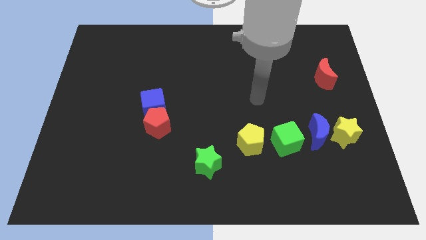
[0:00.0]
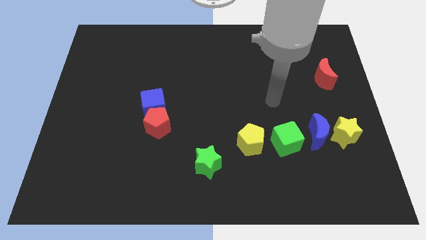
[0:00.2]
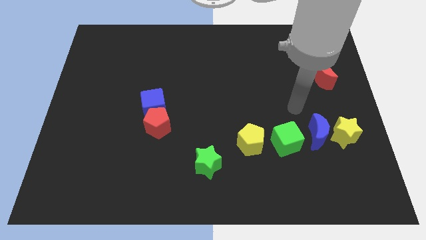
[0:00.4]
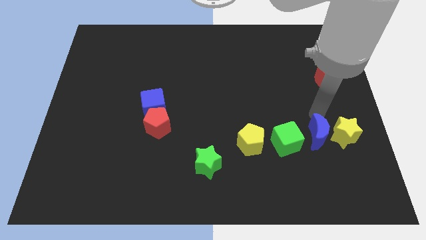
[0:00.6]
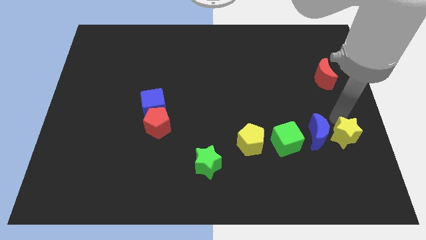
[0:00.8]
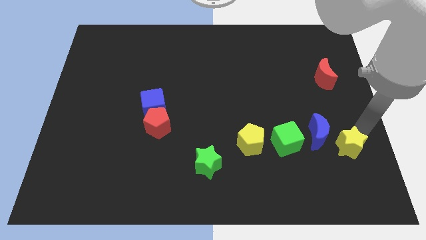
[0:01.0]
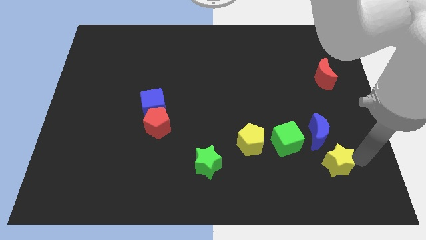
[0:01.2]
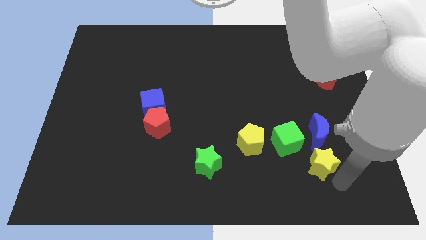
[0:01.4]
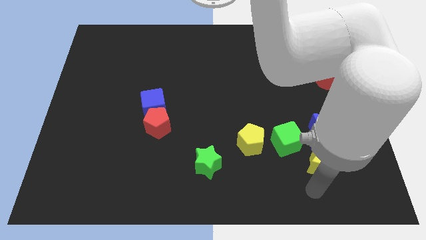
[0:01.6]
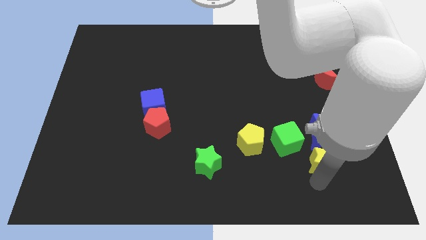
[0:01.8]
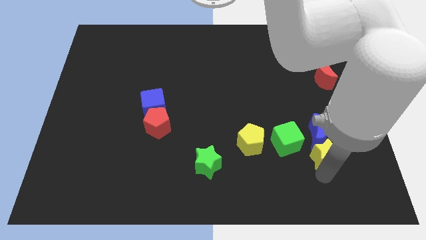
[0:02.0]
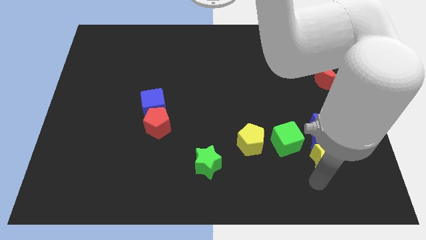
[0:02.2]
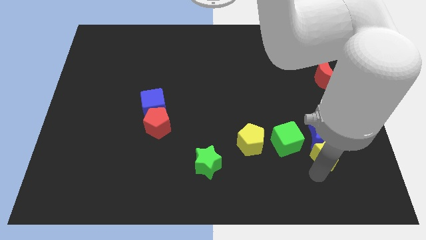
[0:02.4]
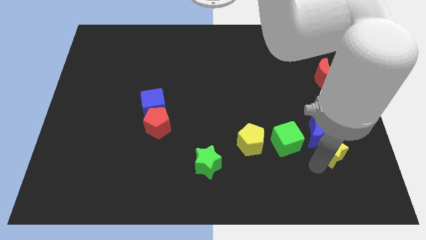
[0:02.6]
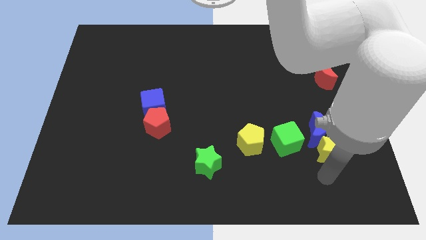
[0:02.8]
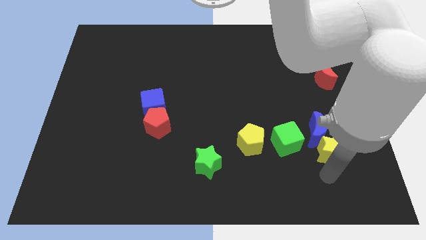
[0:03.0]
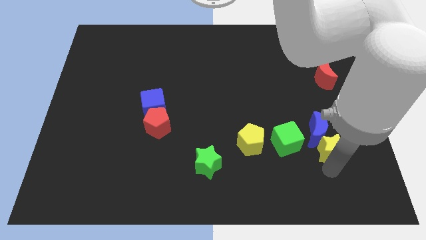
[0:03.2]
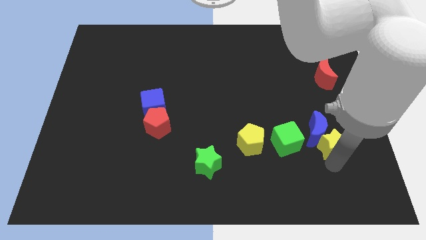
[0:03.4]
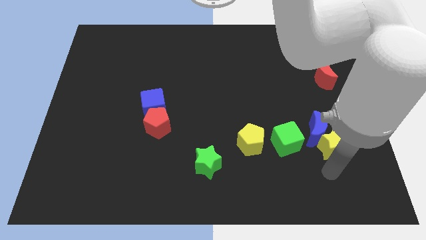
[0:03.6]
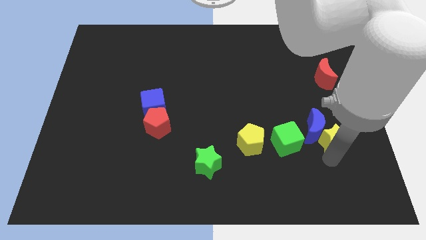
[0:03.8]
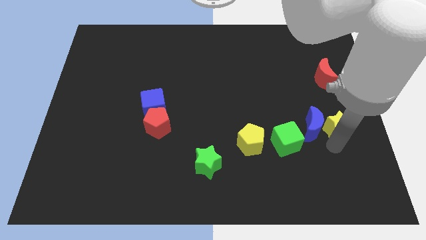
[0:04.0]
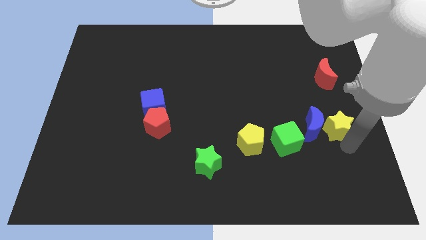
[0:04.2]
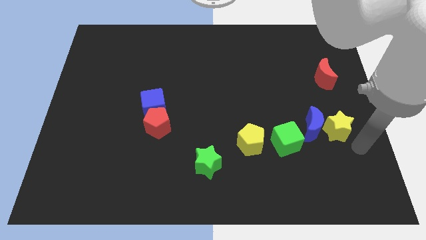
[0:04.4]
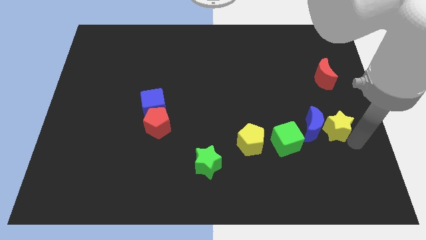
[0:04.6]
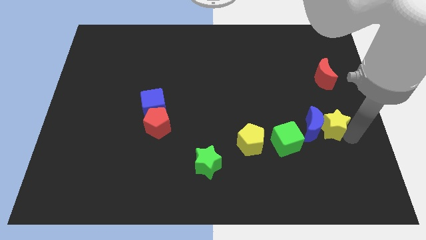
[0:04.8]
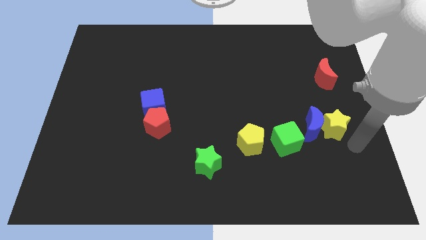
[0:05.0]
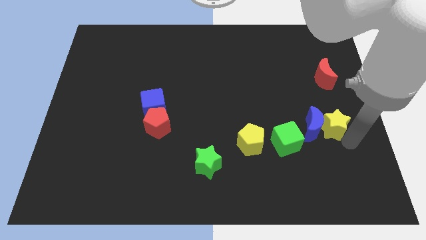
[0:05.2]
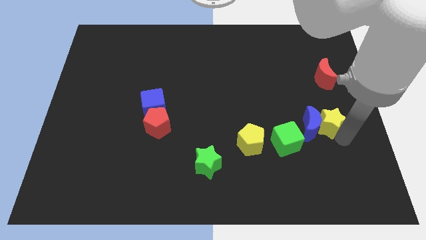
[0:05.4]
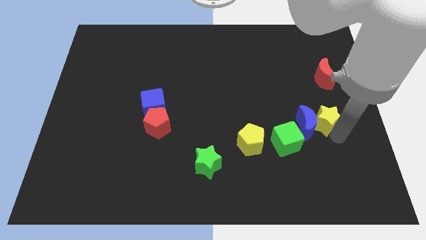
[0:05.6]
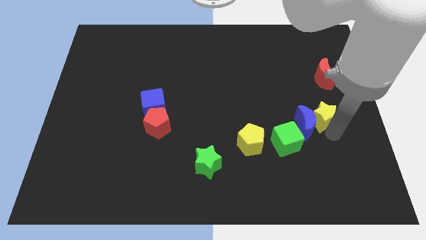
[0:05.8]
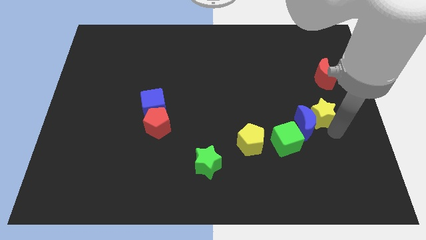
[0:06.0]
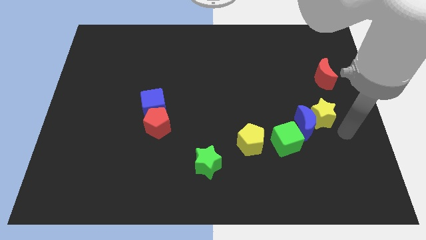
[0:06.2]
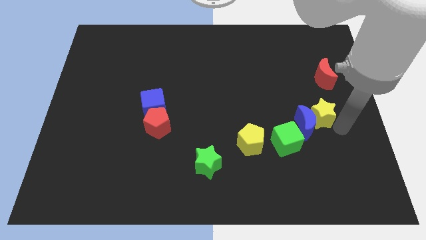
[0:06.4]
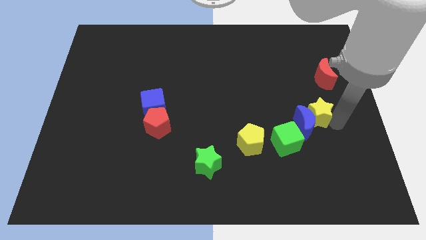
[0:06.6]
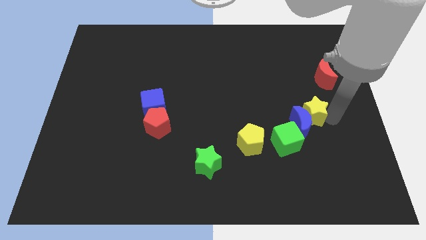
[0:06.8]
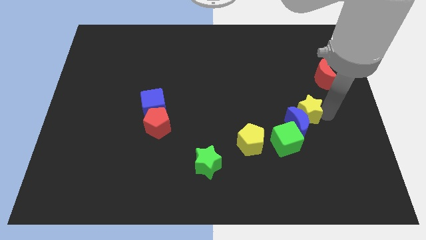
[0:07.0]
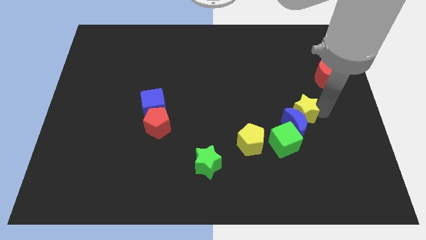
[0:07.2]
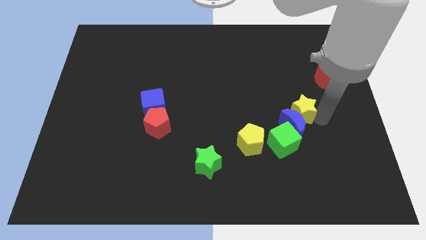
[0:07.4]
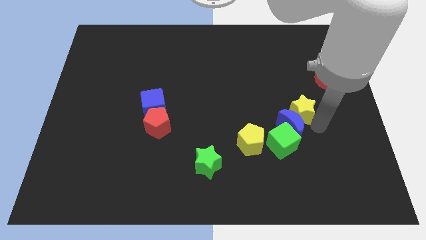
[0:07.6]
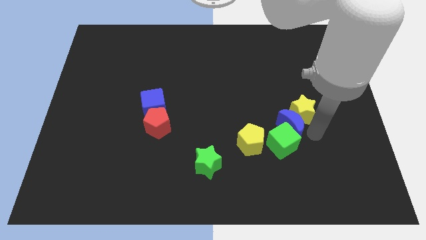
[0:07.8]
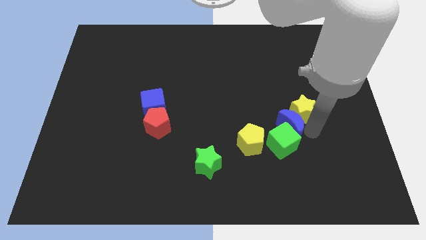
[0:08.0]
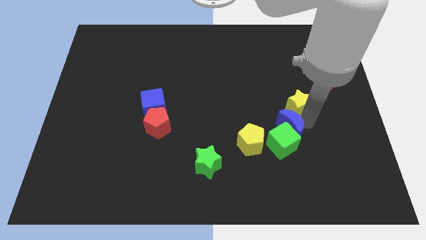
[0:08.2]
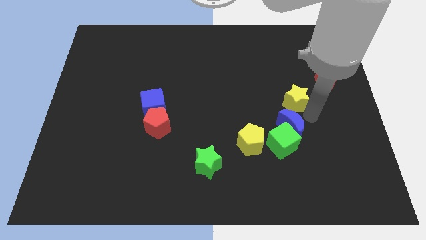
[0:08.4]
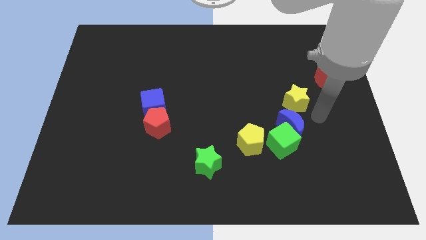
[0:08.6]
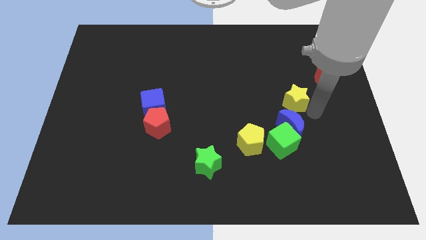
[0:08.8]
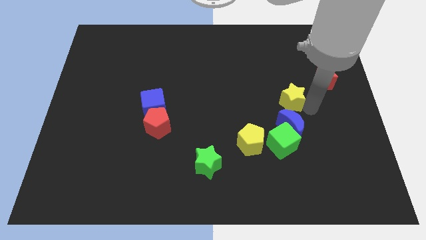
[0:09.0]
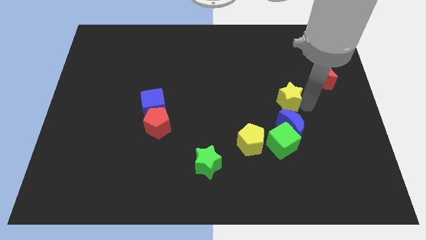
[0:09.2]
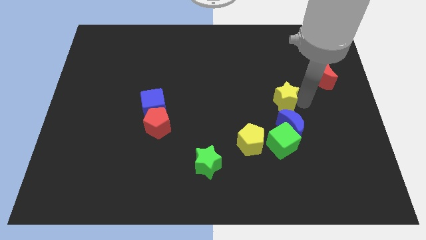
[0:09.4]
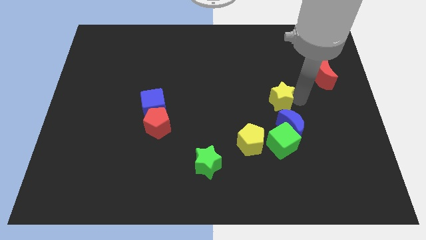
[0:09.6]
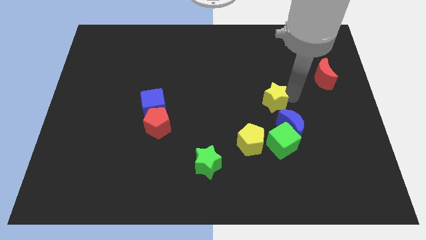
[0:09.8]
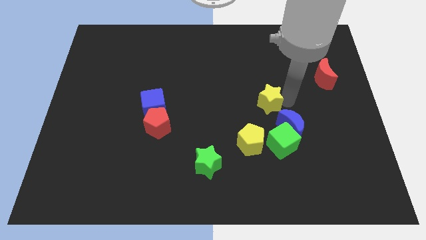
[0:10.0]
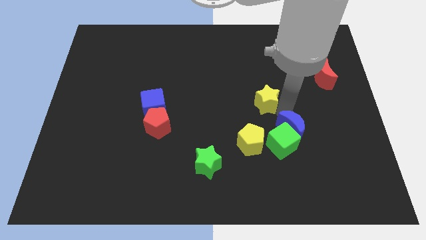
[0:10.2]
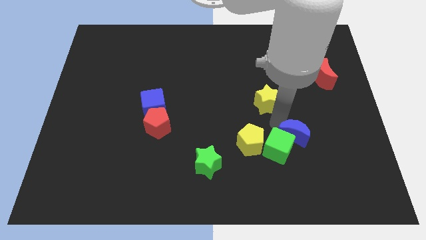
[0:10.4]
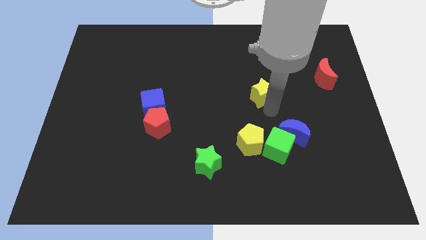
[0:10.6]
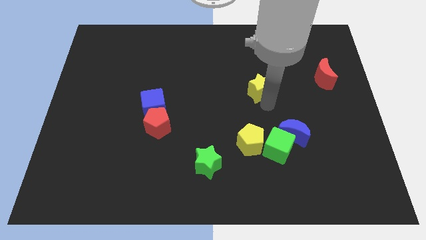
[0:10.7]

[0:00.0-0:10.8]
slide the yellow star diagonally upwards and left

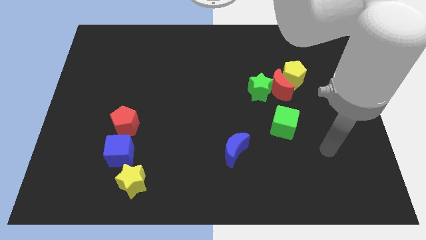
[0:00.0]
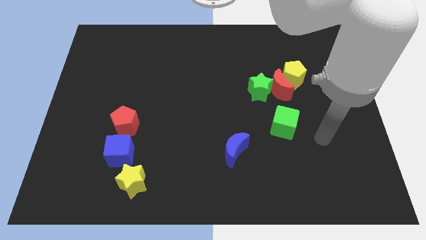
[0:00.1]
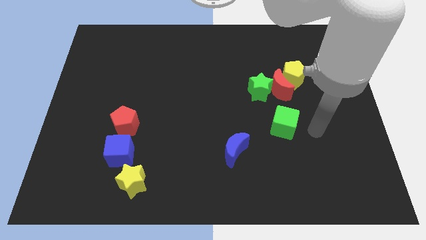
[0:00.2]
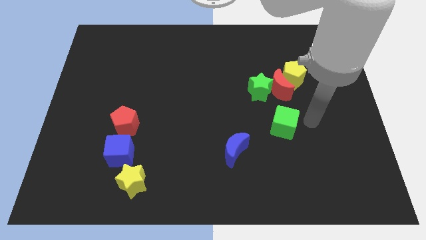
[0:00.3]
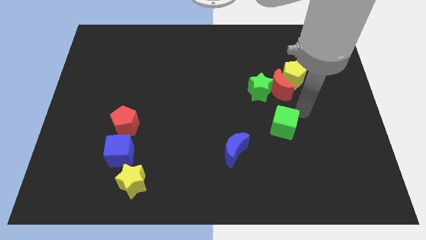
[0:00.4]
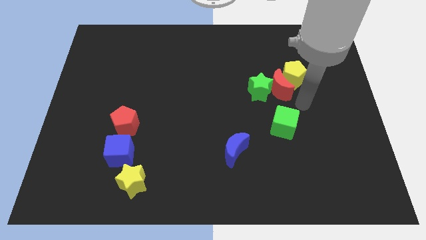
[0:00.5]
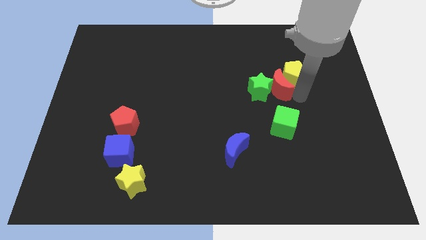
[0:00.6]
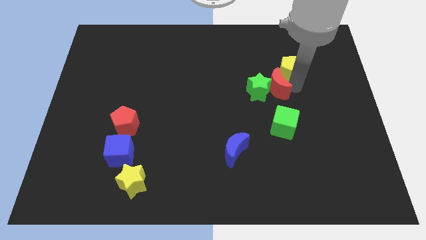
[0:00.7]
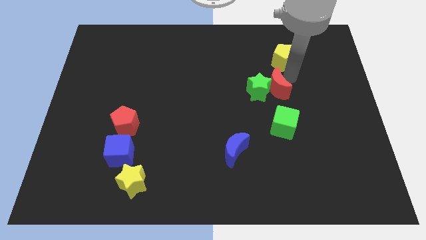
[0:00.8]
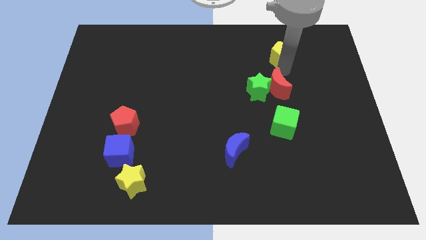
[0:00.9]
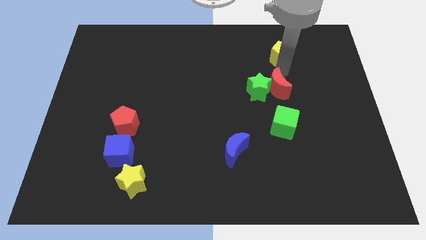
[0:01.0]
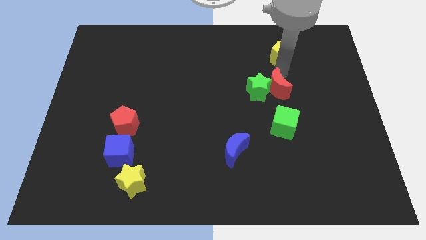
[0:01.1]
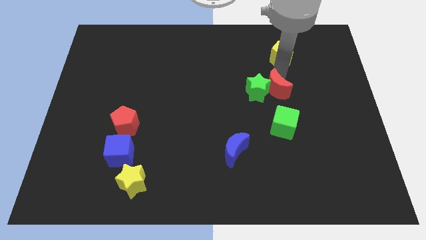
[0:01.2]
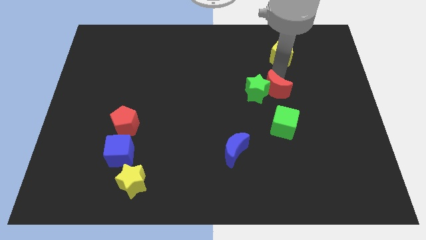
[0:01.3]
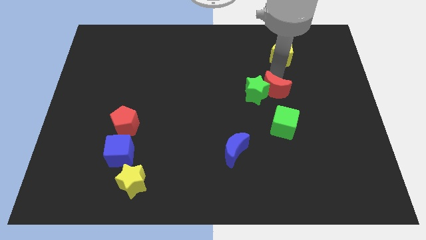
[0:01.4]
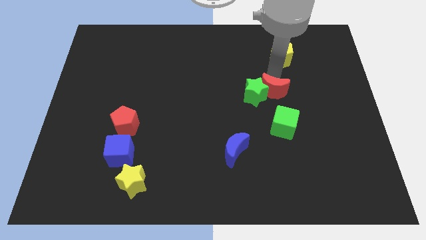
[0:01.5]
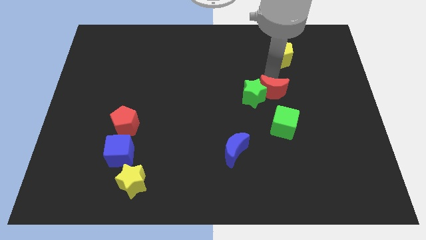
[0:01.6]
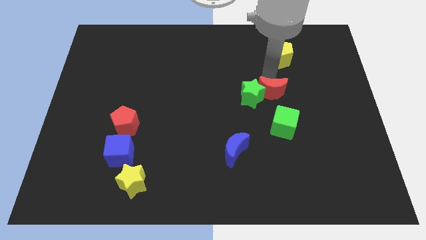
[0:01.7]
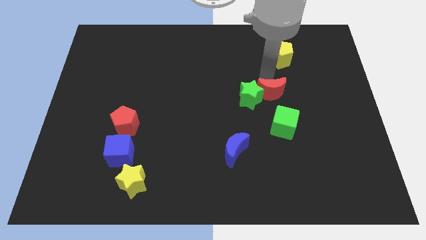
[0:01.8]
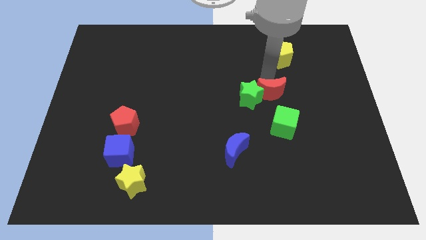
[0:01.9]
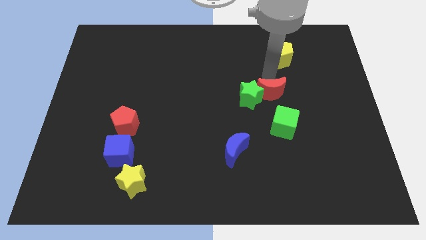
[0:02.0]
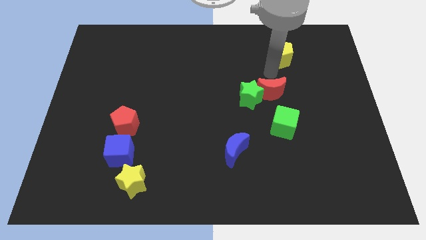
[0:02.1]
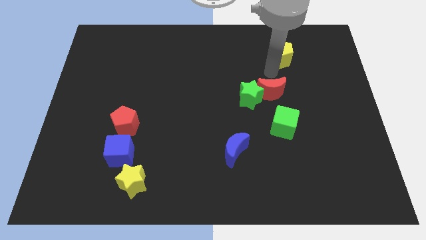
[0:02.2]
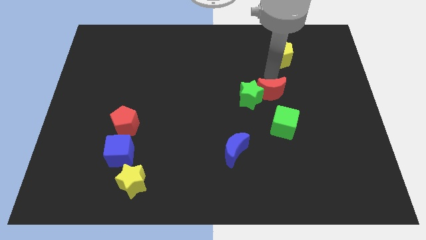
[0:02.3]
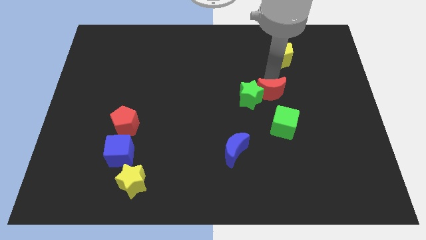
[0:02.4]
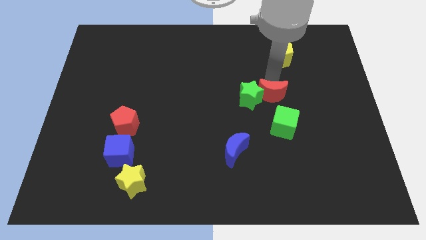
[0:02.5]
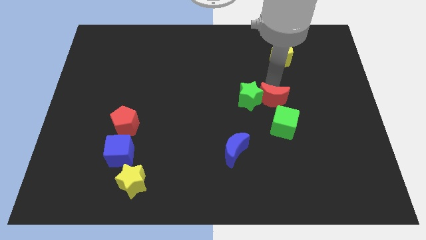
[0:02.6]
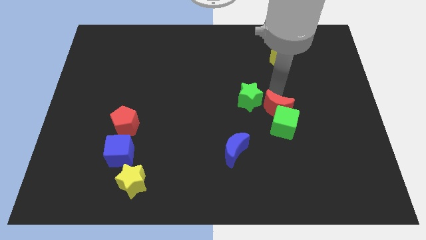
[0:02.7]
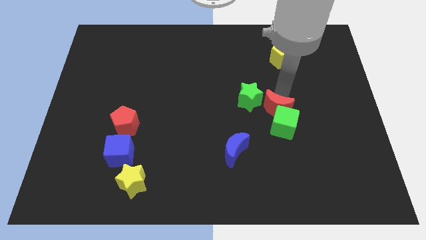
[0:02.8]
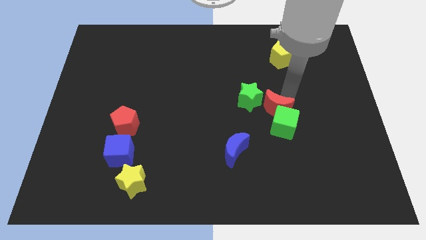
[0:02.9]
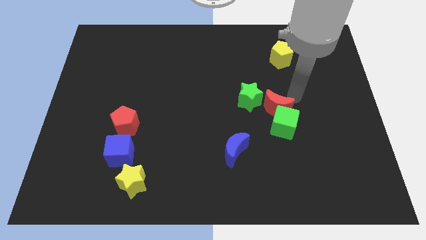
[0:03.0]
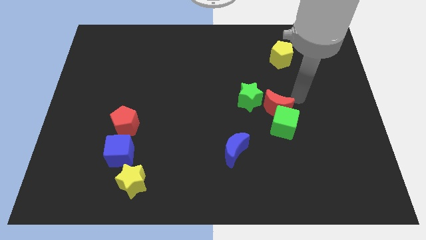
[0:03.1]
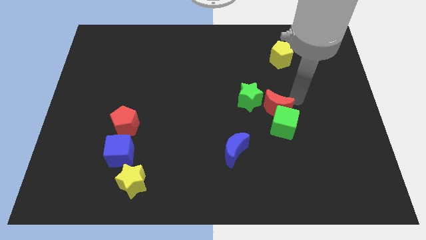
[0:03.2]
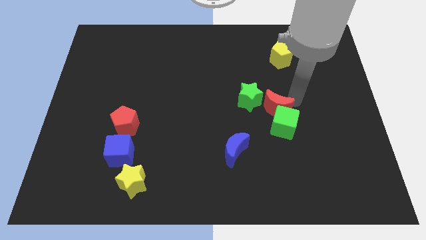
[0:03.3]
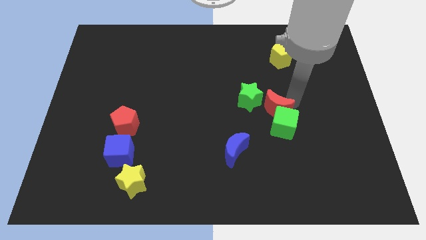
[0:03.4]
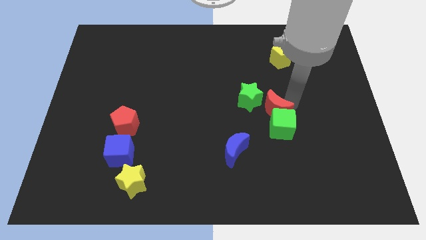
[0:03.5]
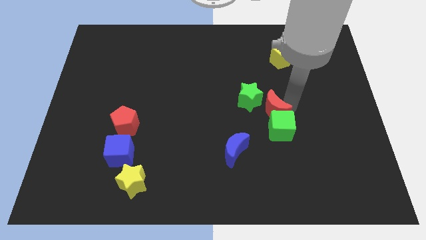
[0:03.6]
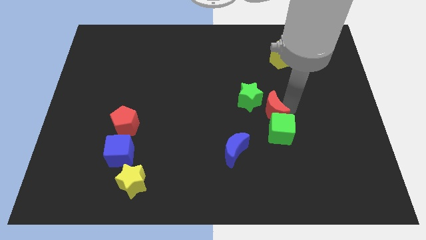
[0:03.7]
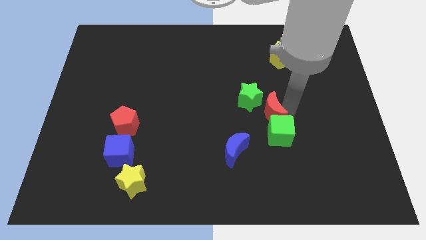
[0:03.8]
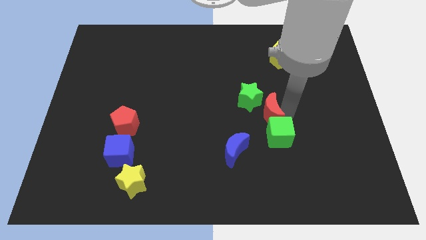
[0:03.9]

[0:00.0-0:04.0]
slightly move the red moon downwards and left
